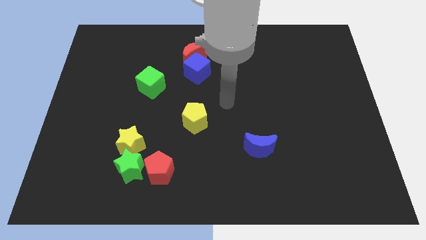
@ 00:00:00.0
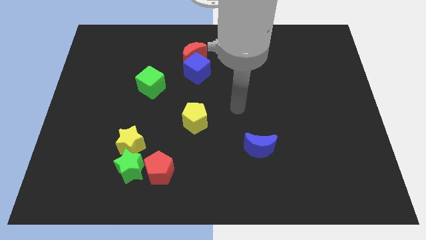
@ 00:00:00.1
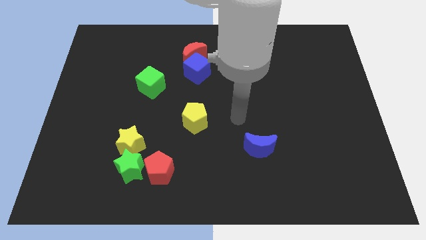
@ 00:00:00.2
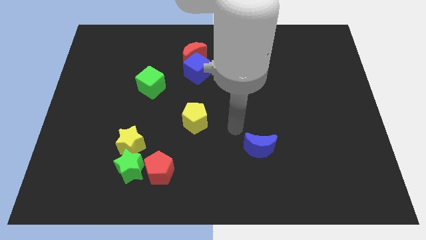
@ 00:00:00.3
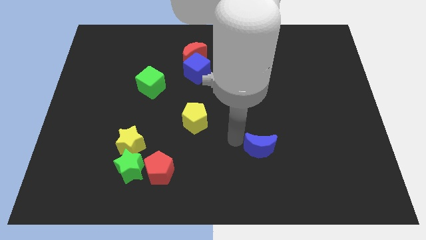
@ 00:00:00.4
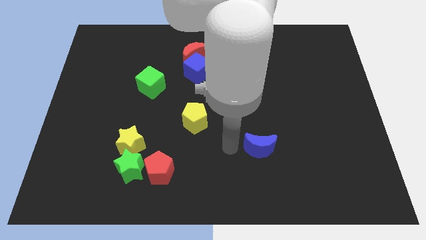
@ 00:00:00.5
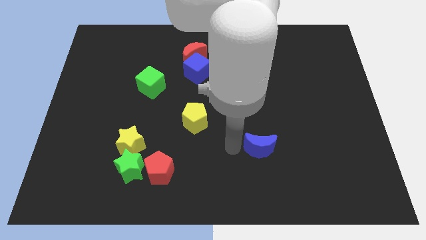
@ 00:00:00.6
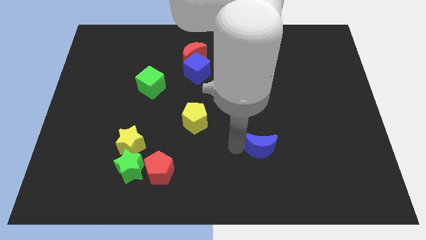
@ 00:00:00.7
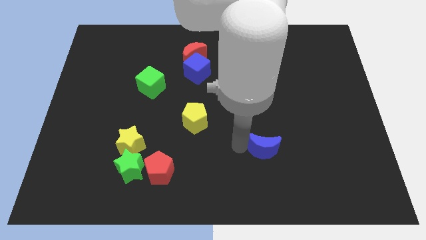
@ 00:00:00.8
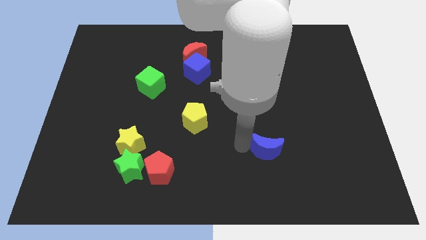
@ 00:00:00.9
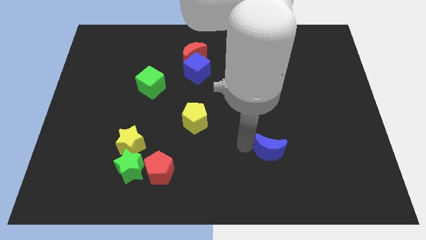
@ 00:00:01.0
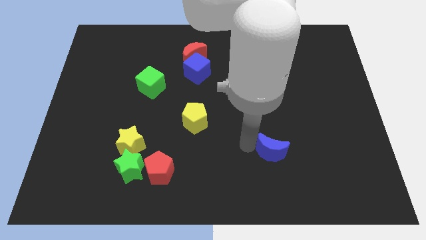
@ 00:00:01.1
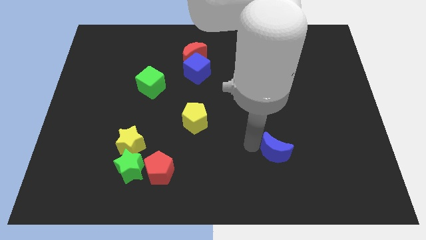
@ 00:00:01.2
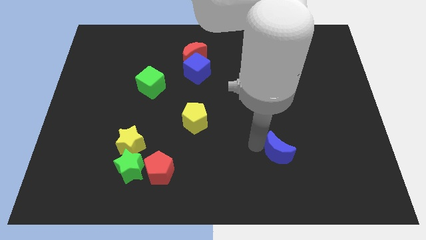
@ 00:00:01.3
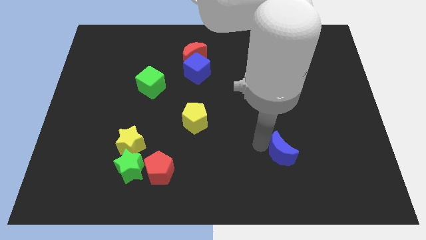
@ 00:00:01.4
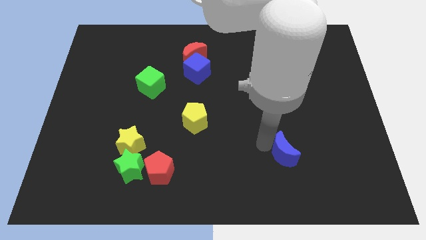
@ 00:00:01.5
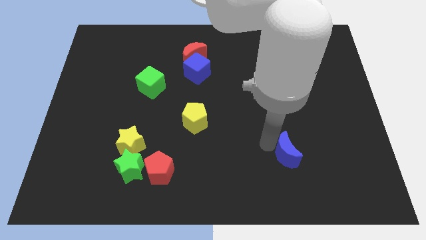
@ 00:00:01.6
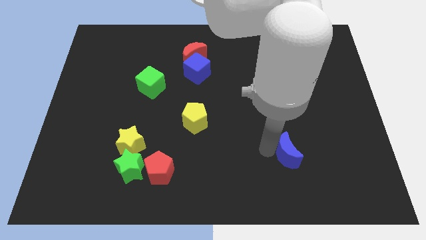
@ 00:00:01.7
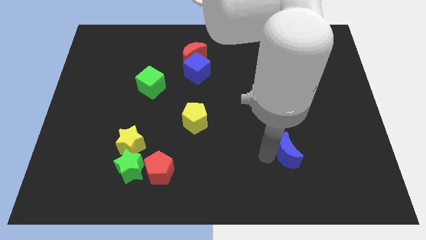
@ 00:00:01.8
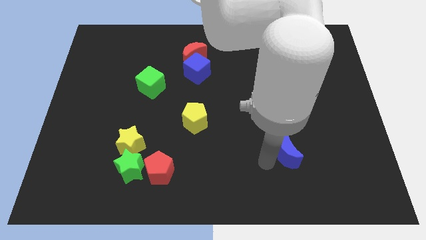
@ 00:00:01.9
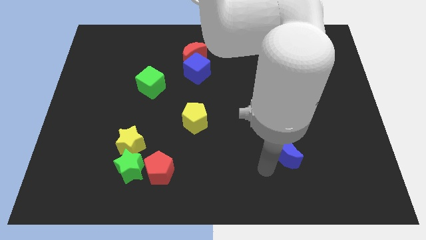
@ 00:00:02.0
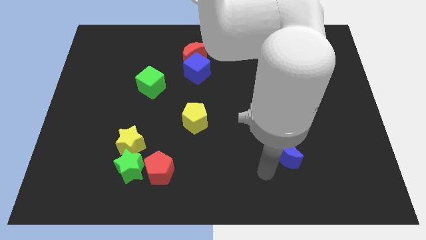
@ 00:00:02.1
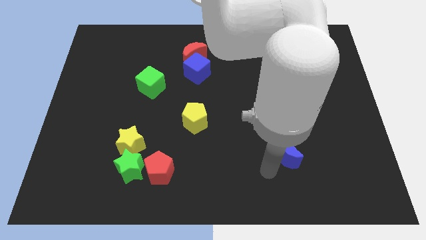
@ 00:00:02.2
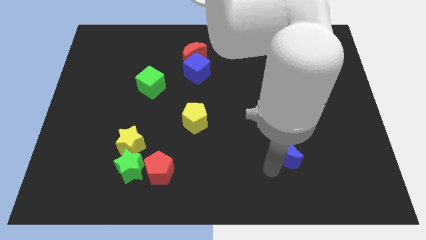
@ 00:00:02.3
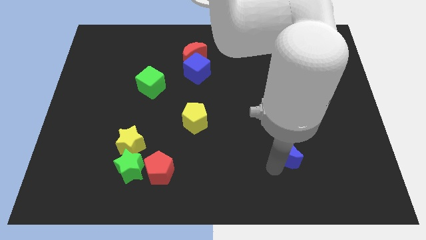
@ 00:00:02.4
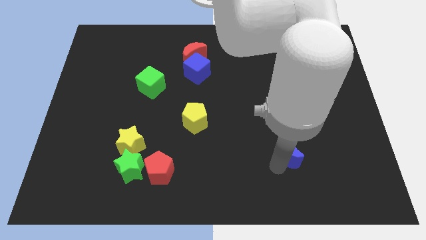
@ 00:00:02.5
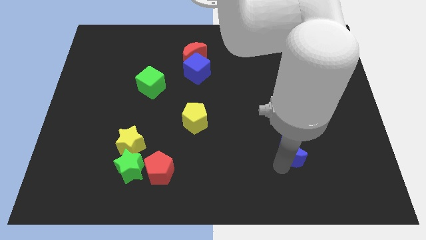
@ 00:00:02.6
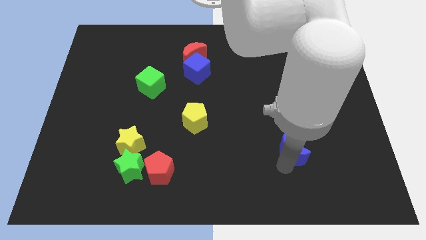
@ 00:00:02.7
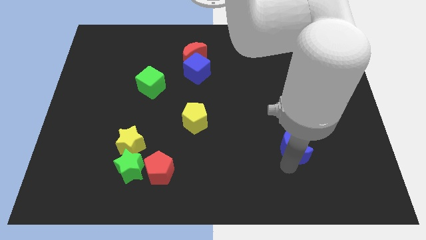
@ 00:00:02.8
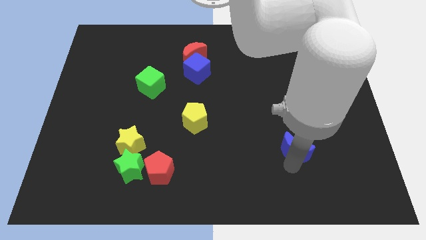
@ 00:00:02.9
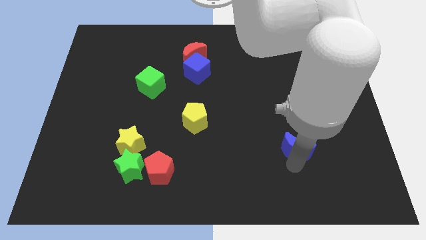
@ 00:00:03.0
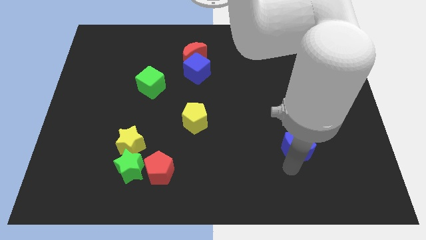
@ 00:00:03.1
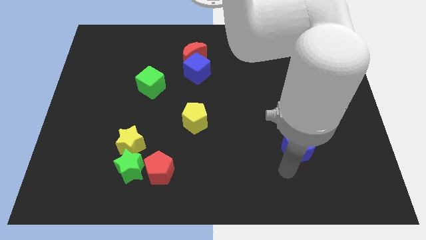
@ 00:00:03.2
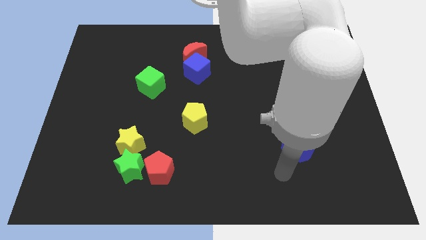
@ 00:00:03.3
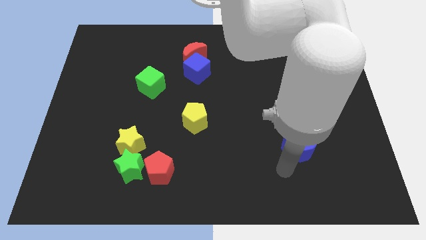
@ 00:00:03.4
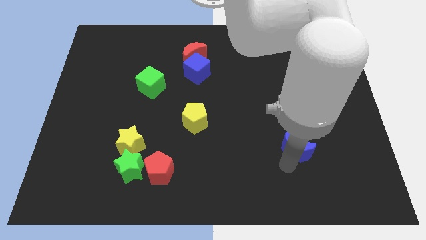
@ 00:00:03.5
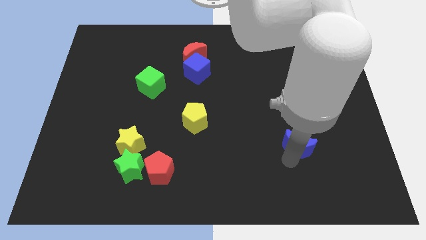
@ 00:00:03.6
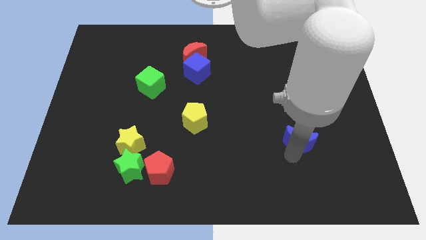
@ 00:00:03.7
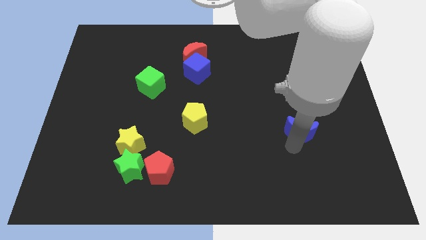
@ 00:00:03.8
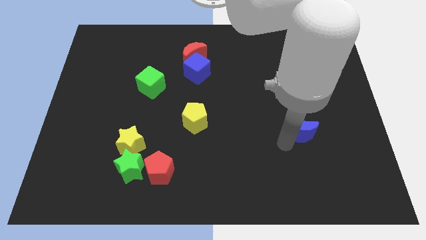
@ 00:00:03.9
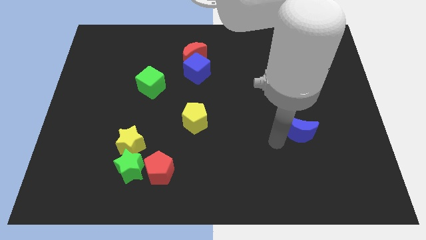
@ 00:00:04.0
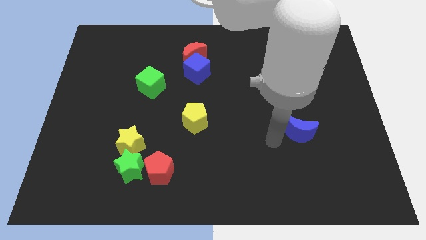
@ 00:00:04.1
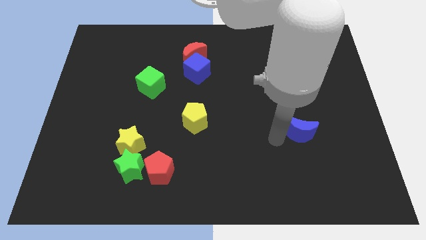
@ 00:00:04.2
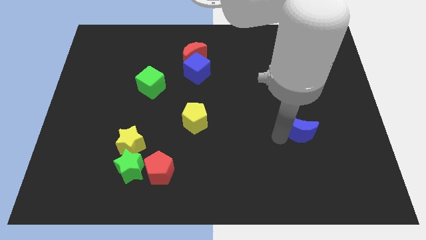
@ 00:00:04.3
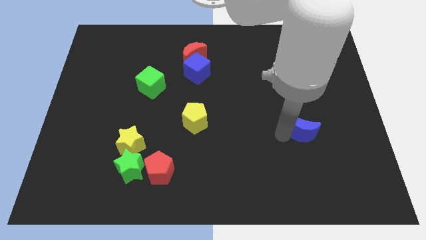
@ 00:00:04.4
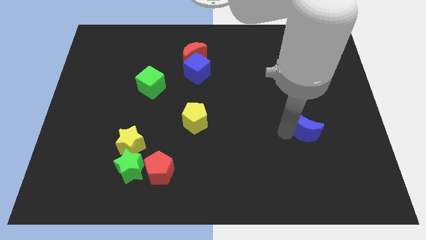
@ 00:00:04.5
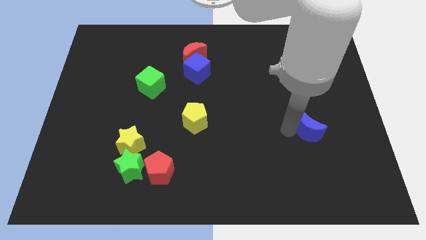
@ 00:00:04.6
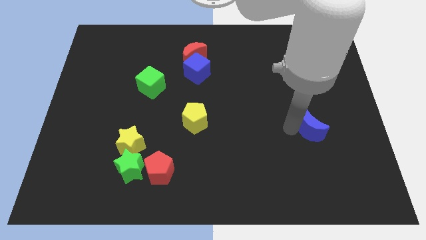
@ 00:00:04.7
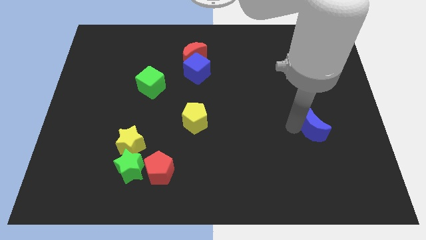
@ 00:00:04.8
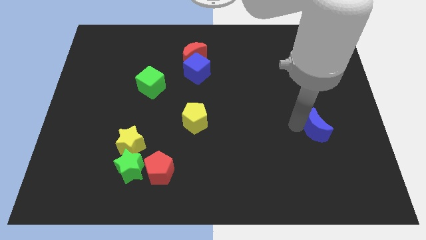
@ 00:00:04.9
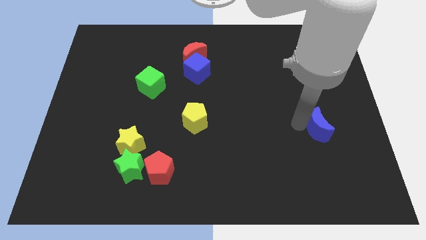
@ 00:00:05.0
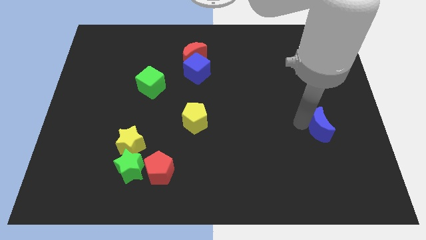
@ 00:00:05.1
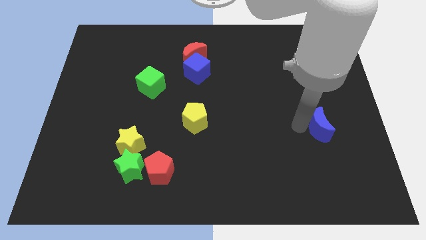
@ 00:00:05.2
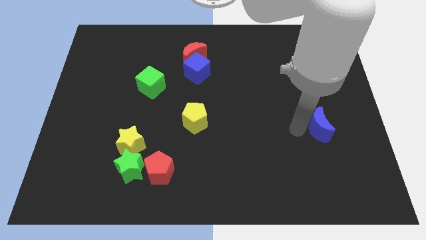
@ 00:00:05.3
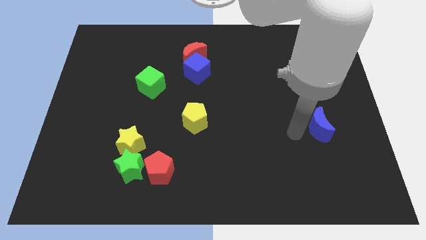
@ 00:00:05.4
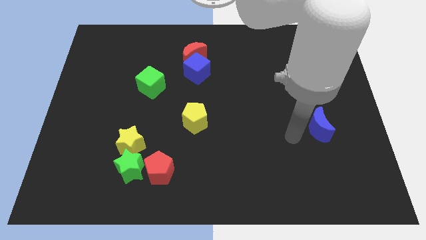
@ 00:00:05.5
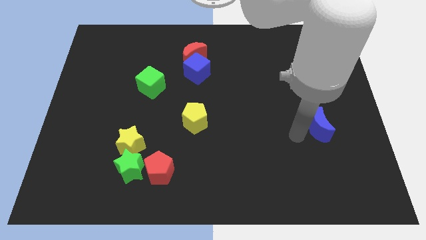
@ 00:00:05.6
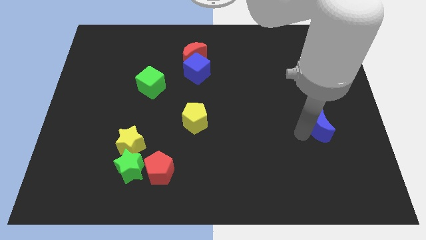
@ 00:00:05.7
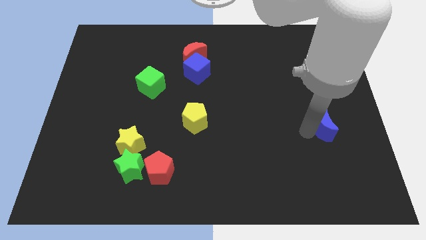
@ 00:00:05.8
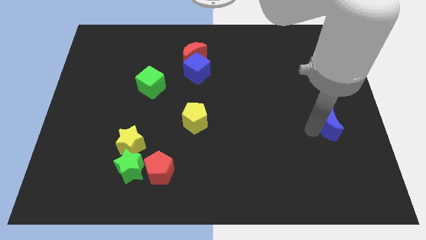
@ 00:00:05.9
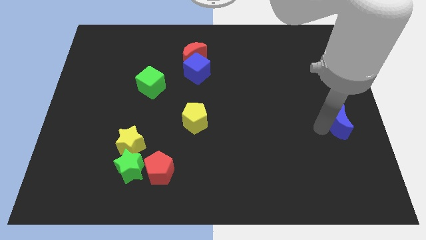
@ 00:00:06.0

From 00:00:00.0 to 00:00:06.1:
put the blue moon to the center right
